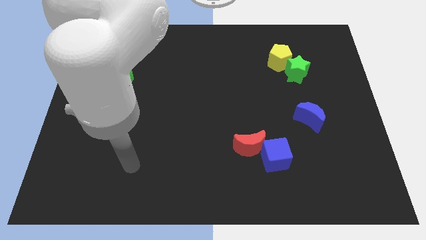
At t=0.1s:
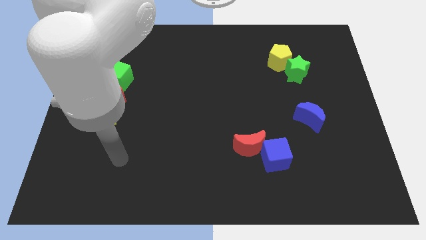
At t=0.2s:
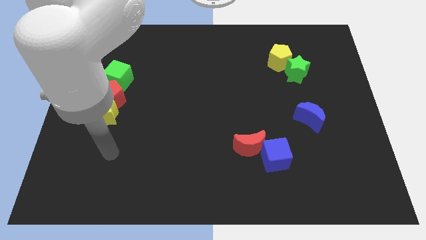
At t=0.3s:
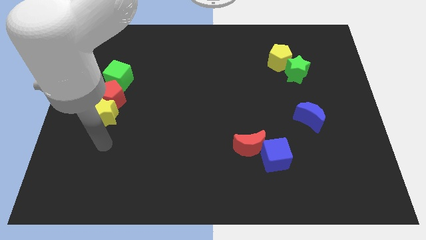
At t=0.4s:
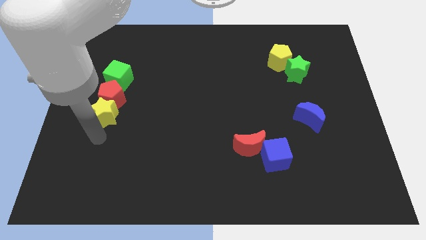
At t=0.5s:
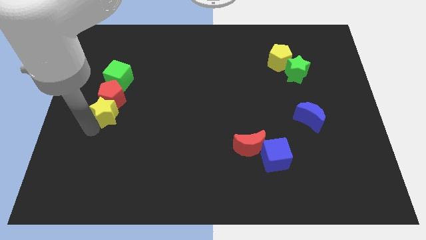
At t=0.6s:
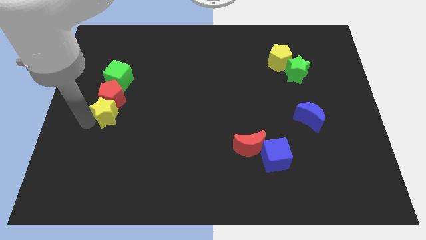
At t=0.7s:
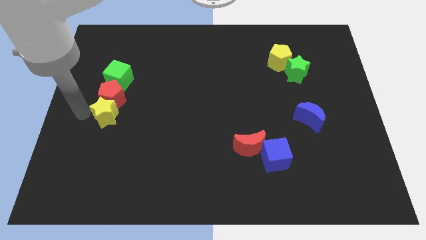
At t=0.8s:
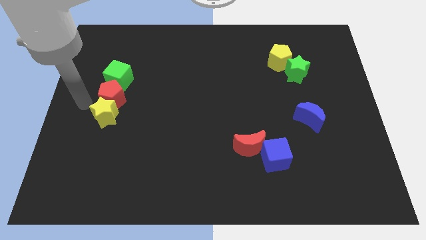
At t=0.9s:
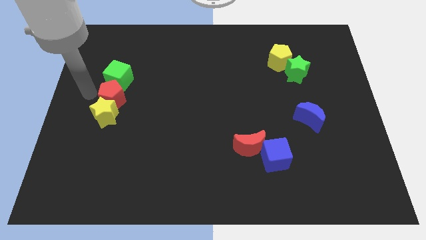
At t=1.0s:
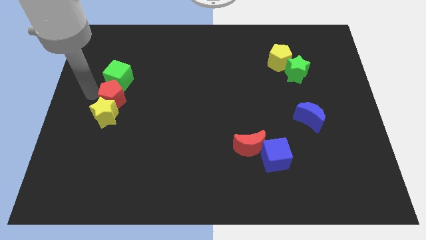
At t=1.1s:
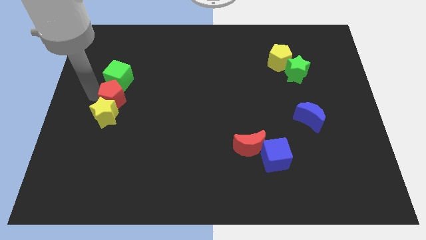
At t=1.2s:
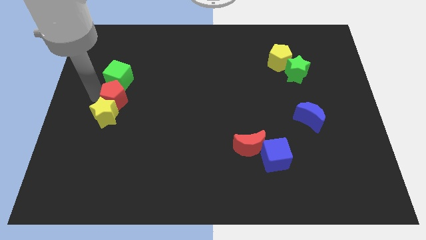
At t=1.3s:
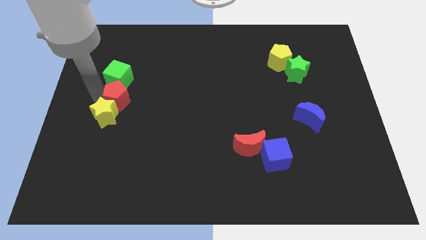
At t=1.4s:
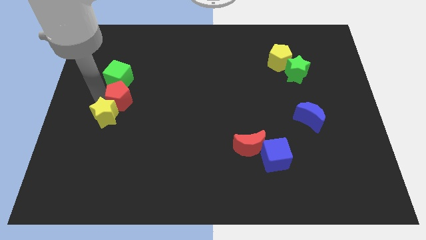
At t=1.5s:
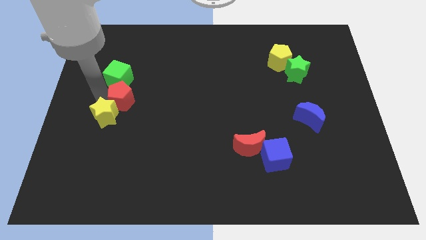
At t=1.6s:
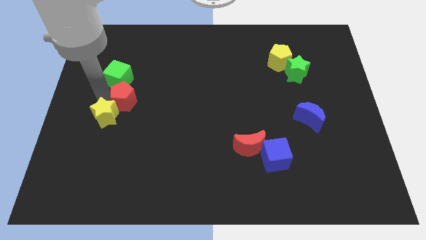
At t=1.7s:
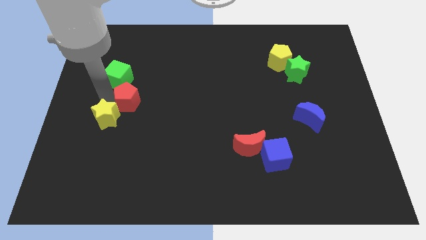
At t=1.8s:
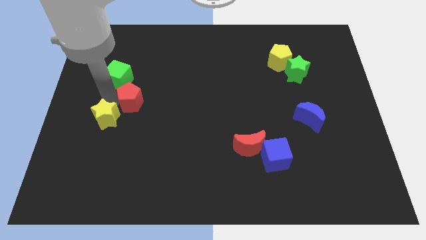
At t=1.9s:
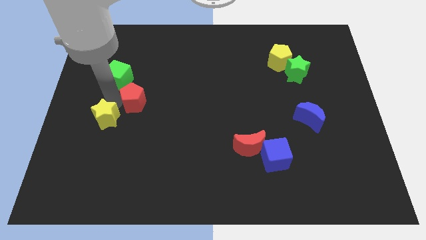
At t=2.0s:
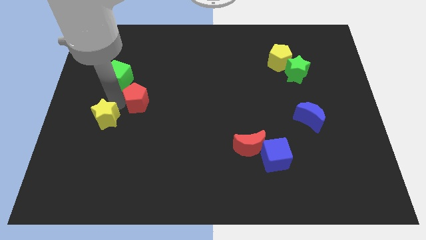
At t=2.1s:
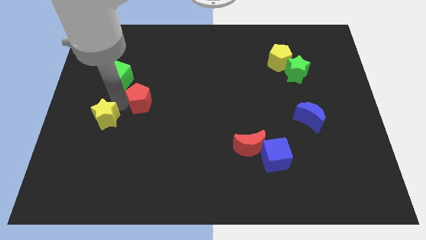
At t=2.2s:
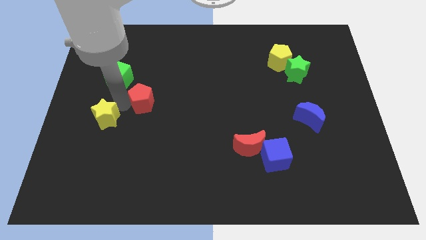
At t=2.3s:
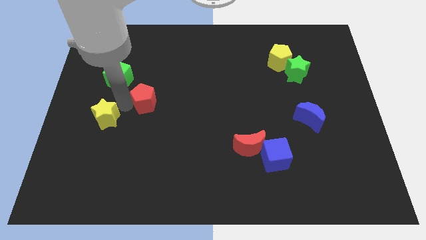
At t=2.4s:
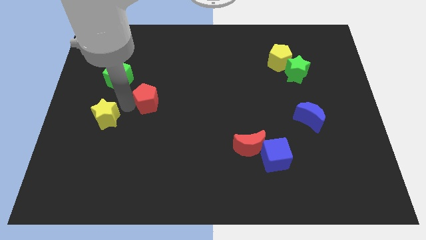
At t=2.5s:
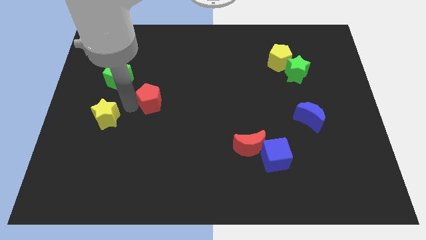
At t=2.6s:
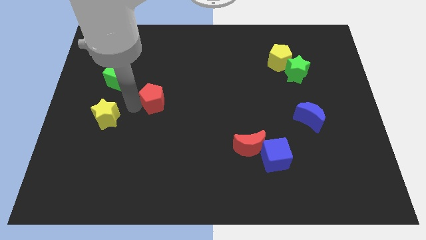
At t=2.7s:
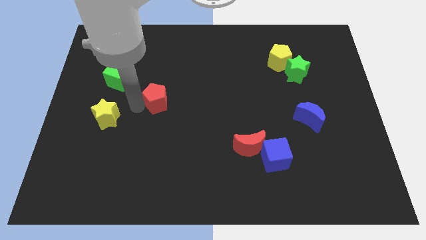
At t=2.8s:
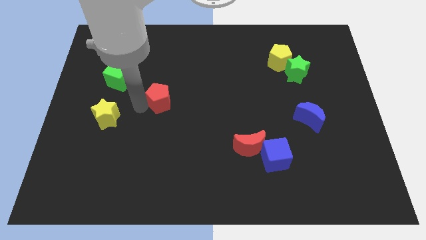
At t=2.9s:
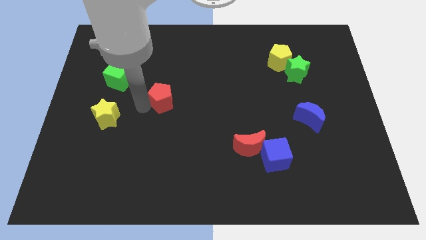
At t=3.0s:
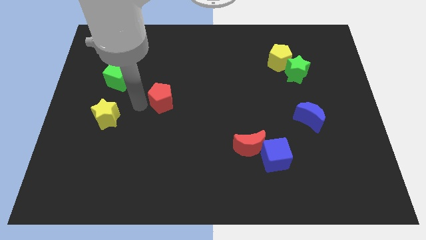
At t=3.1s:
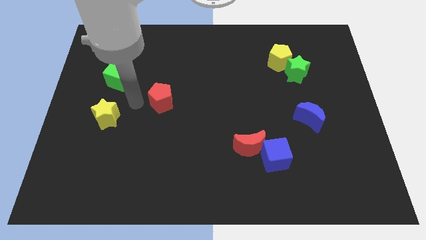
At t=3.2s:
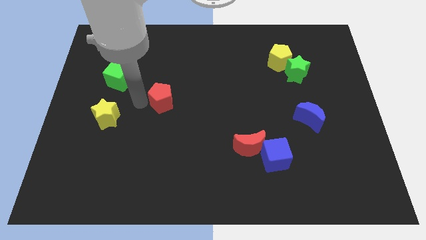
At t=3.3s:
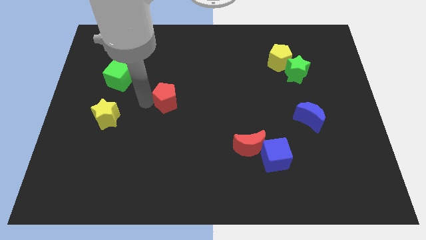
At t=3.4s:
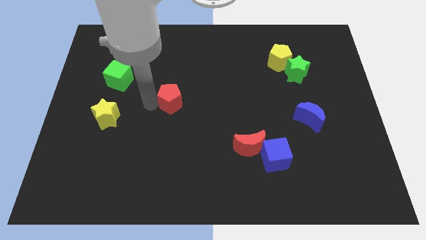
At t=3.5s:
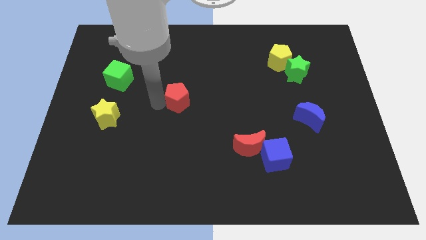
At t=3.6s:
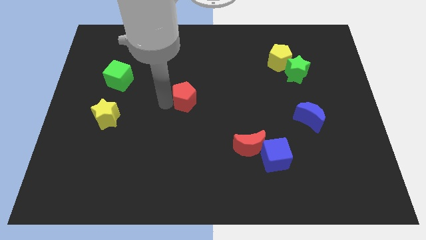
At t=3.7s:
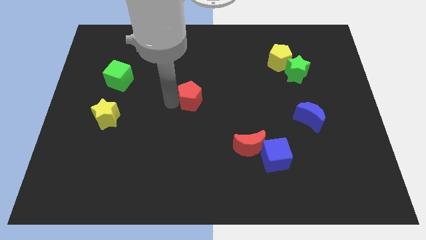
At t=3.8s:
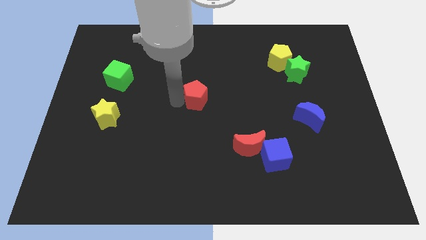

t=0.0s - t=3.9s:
slide the red pentagon right

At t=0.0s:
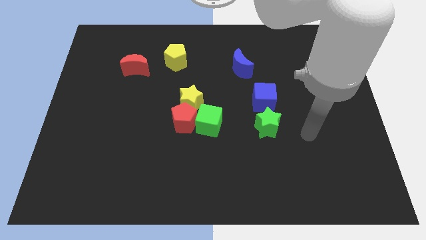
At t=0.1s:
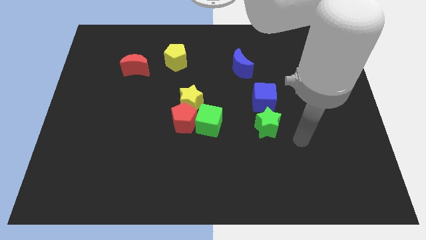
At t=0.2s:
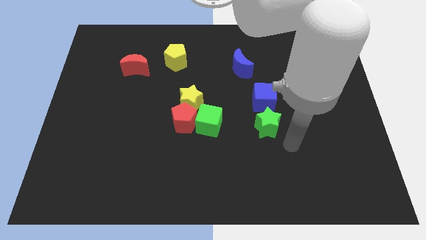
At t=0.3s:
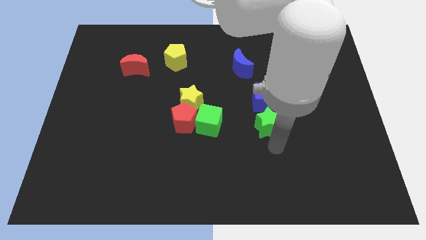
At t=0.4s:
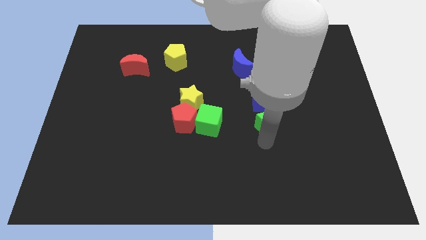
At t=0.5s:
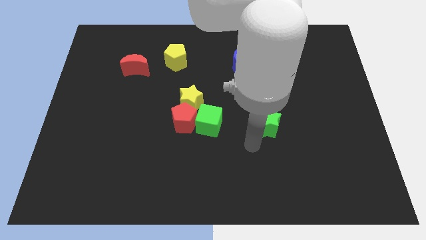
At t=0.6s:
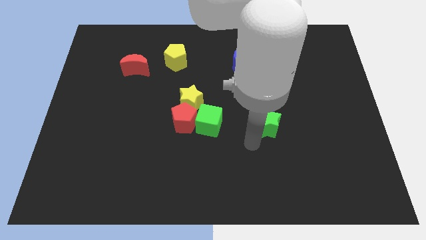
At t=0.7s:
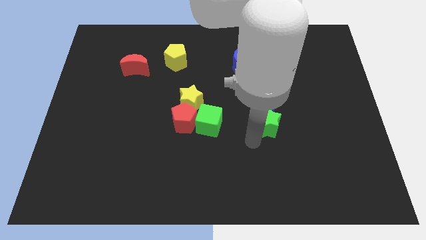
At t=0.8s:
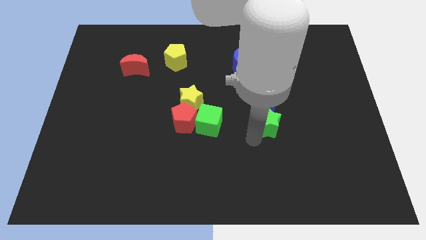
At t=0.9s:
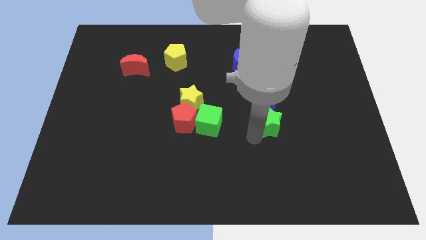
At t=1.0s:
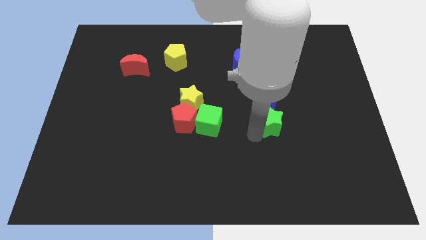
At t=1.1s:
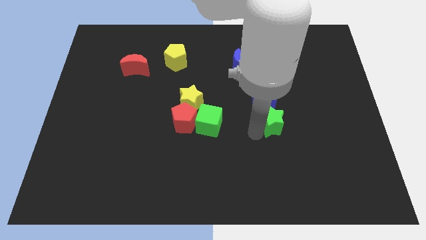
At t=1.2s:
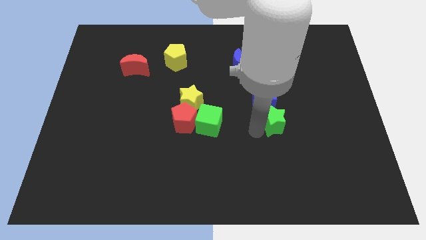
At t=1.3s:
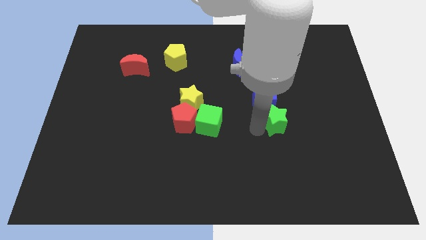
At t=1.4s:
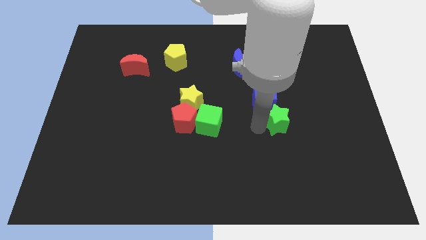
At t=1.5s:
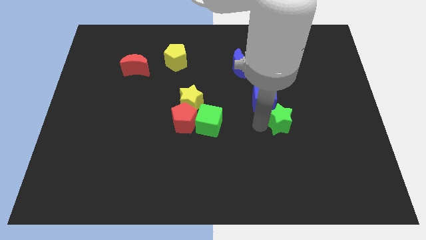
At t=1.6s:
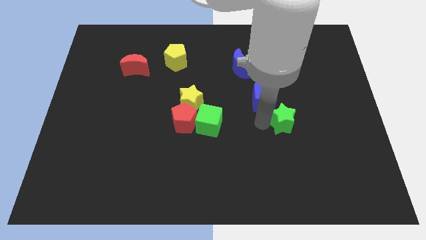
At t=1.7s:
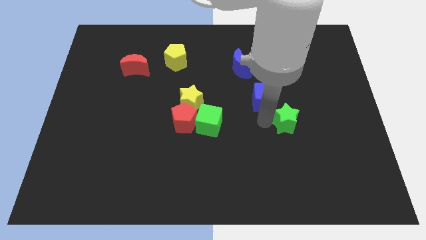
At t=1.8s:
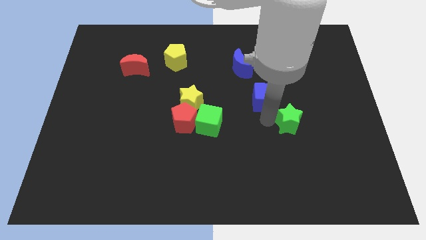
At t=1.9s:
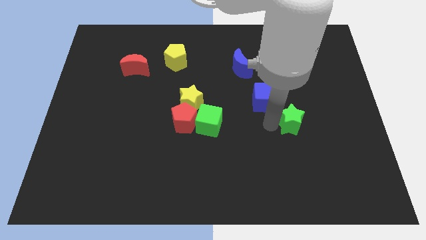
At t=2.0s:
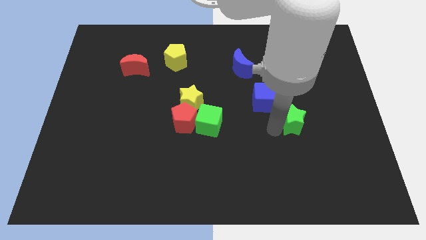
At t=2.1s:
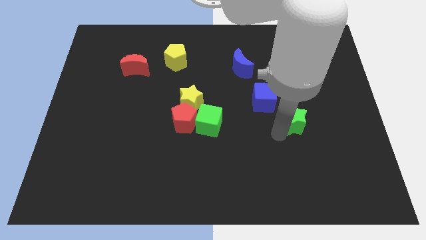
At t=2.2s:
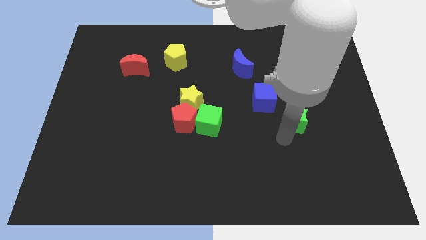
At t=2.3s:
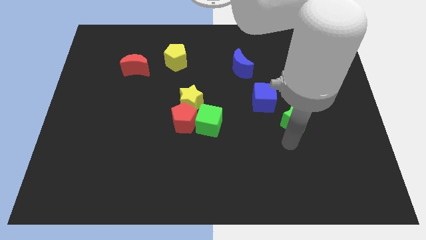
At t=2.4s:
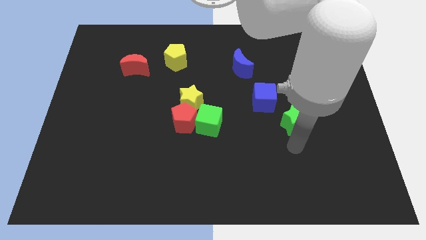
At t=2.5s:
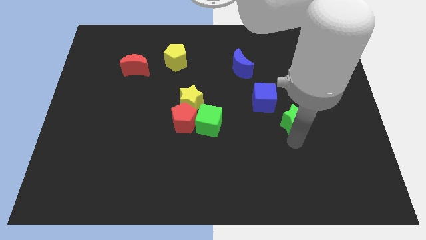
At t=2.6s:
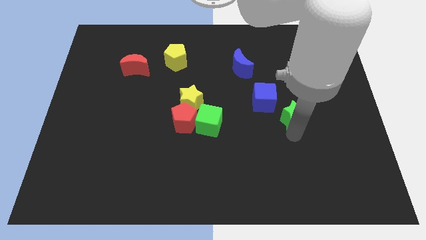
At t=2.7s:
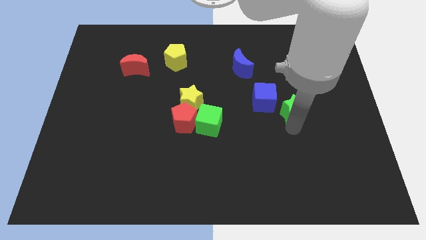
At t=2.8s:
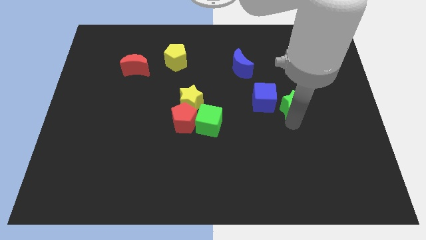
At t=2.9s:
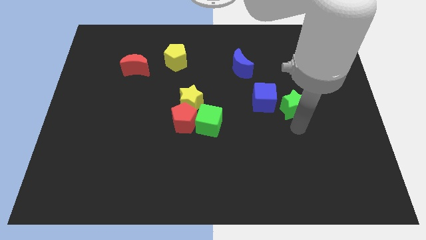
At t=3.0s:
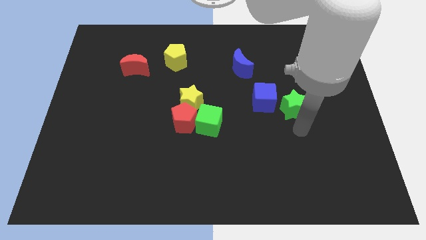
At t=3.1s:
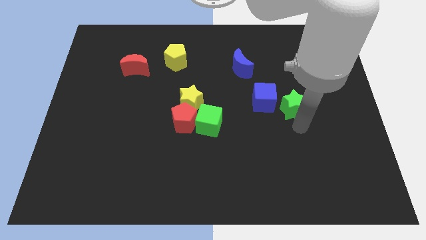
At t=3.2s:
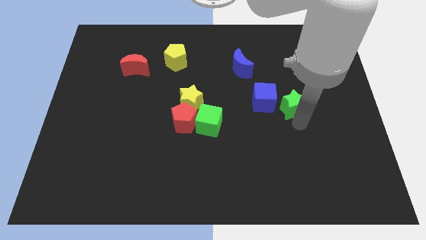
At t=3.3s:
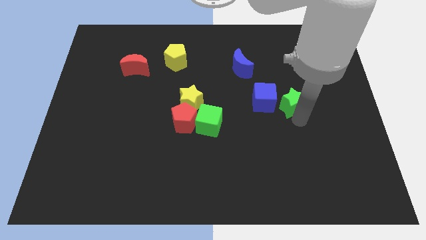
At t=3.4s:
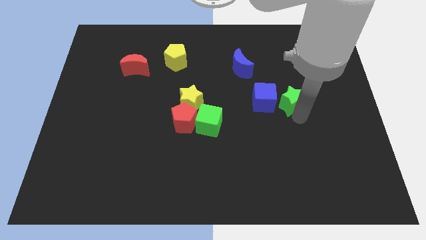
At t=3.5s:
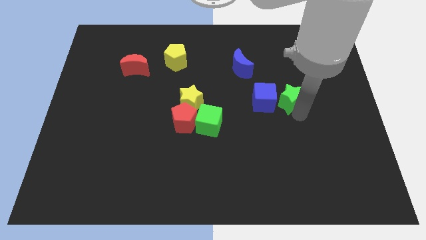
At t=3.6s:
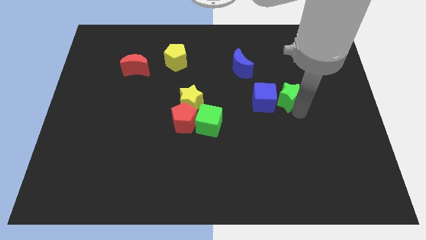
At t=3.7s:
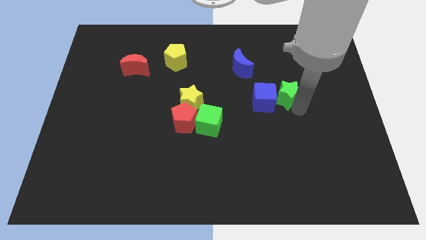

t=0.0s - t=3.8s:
slightly push the green star upwards

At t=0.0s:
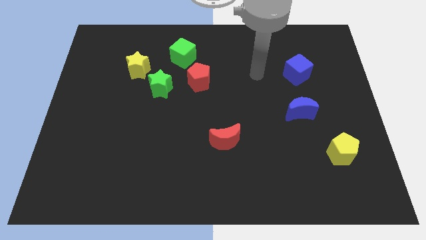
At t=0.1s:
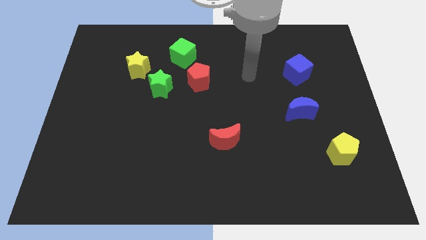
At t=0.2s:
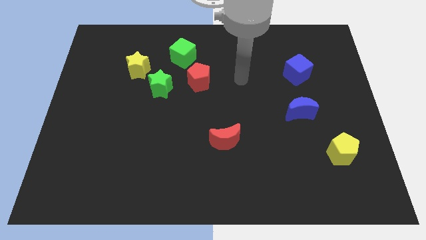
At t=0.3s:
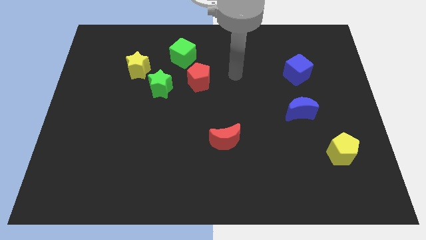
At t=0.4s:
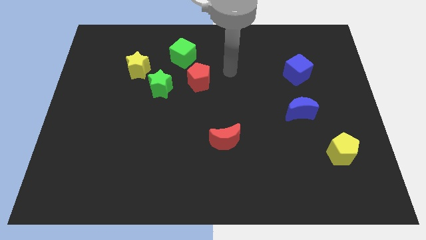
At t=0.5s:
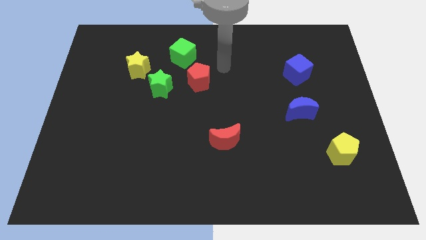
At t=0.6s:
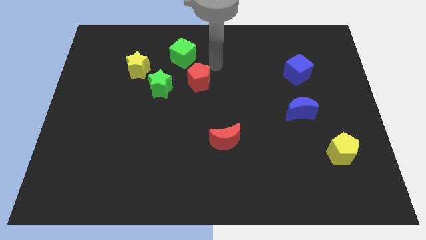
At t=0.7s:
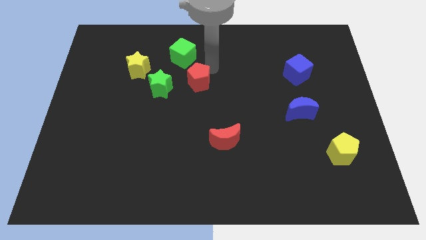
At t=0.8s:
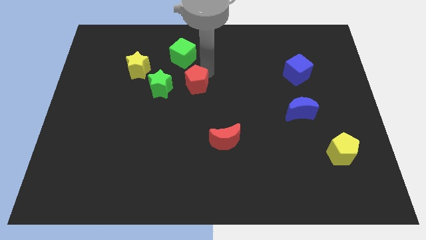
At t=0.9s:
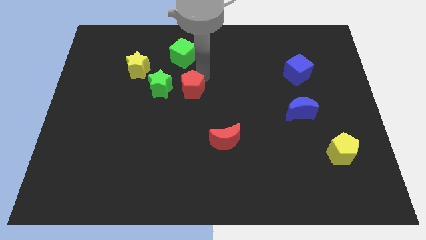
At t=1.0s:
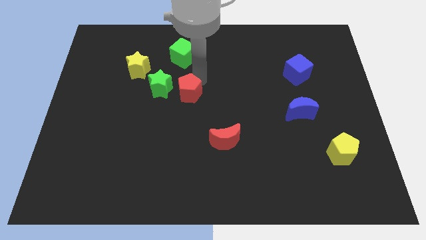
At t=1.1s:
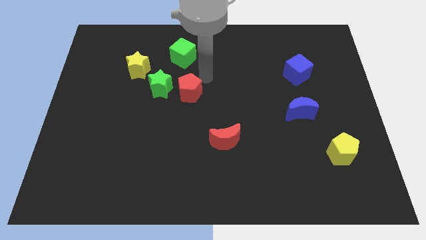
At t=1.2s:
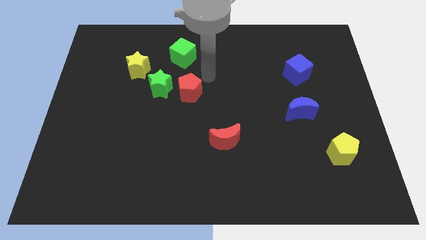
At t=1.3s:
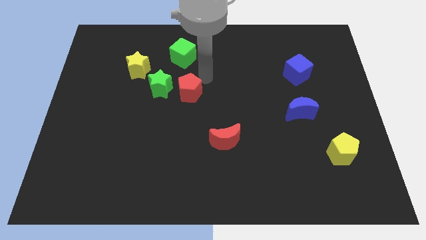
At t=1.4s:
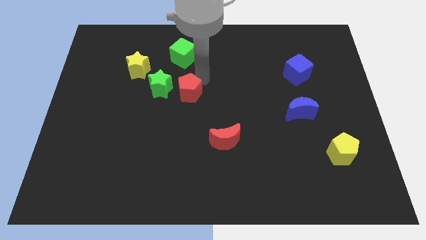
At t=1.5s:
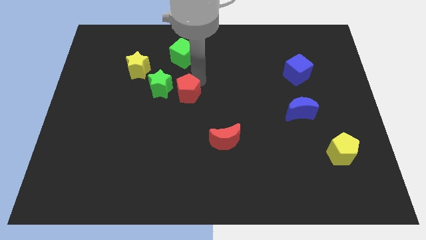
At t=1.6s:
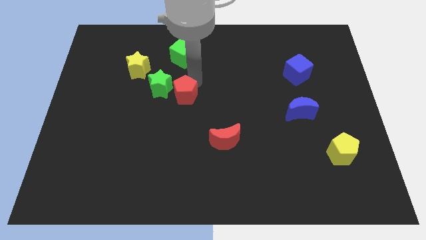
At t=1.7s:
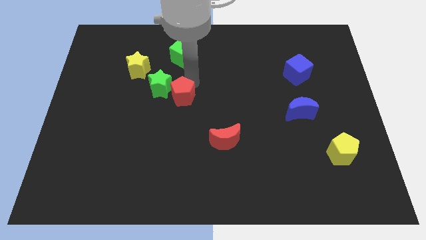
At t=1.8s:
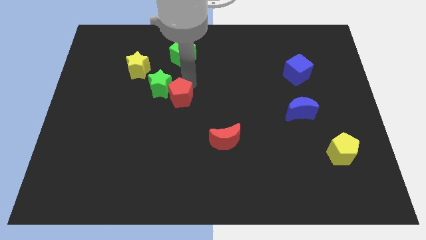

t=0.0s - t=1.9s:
move the red pentagon downwards and left diagonally a bit
